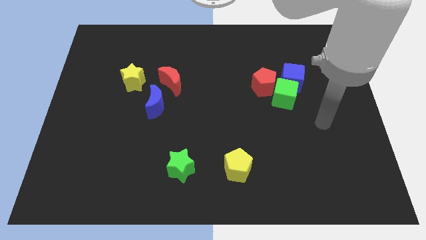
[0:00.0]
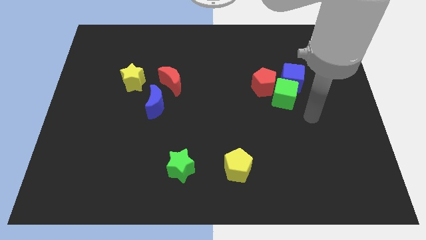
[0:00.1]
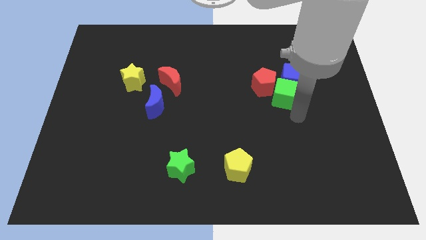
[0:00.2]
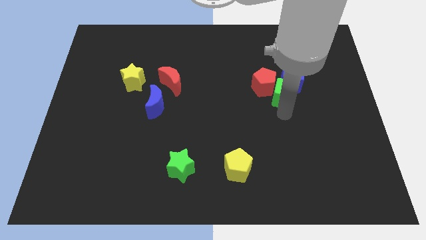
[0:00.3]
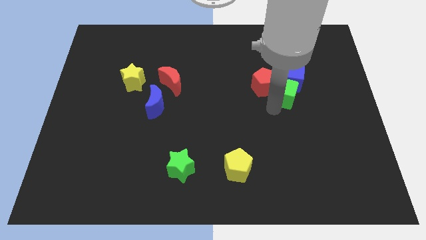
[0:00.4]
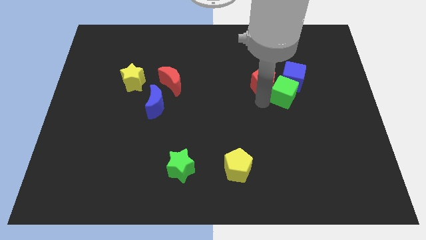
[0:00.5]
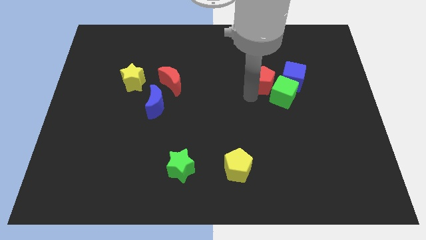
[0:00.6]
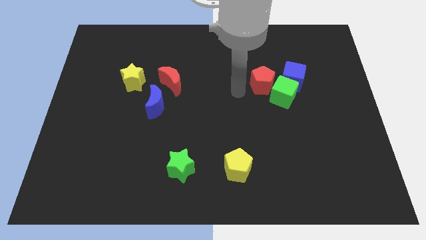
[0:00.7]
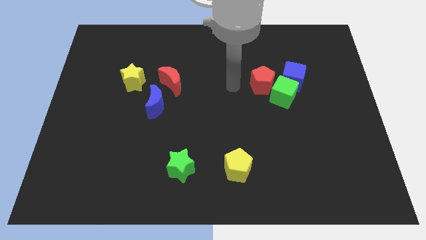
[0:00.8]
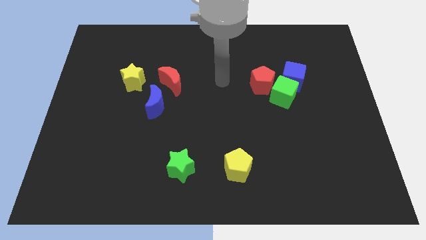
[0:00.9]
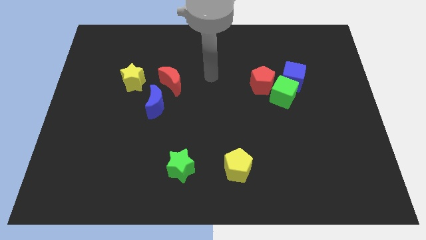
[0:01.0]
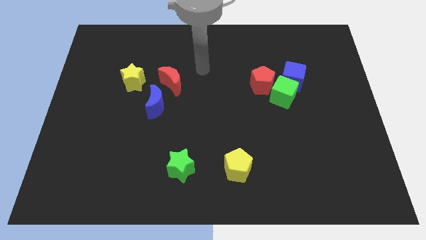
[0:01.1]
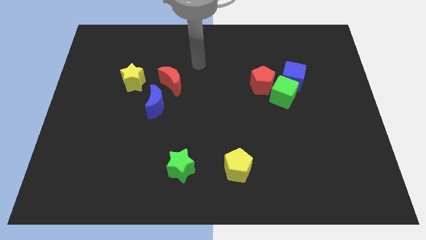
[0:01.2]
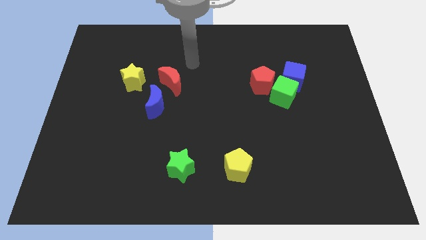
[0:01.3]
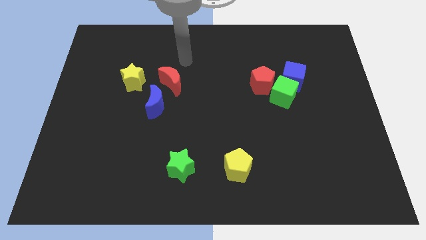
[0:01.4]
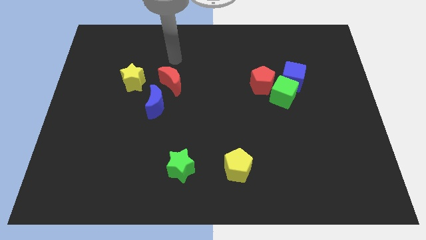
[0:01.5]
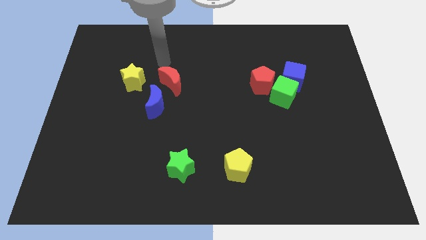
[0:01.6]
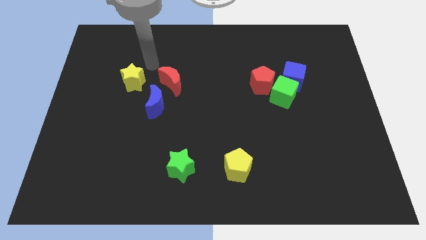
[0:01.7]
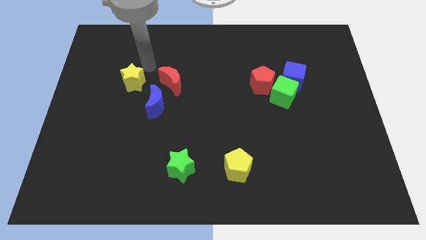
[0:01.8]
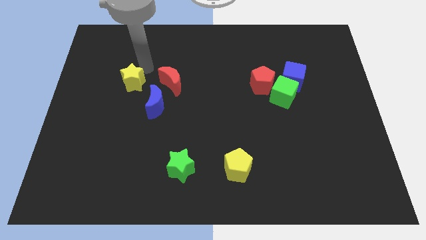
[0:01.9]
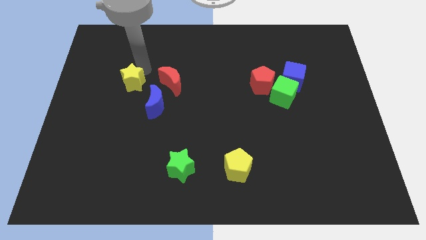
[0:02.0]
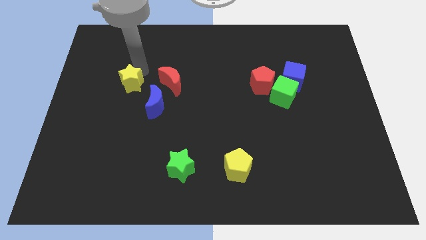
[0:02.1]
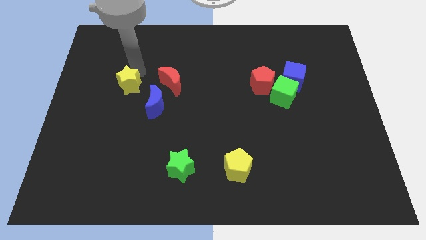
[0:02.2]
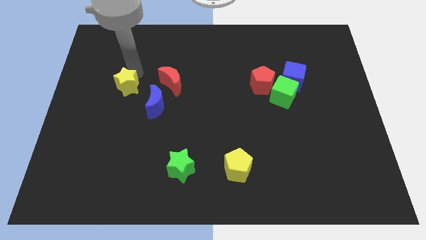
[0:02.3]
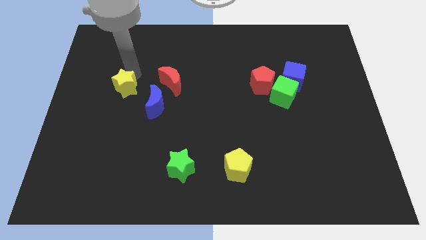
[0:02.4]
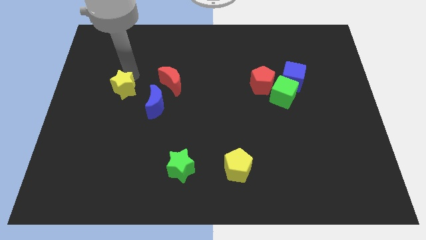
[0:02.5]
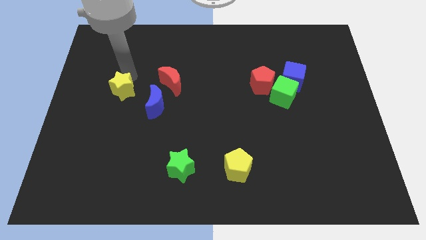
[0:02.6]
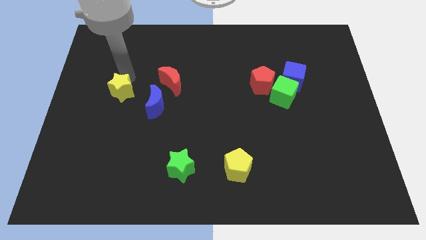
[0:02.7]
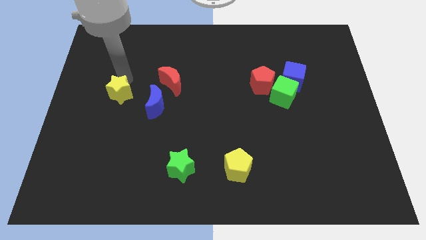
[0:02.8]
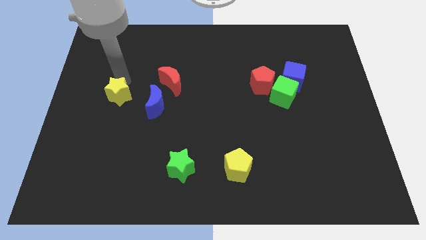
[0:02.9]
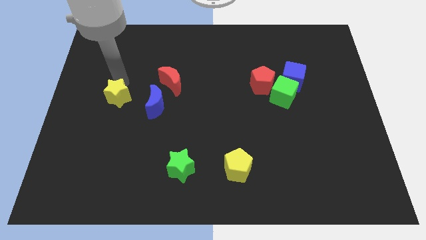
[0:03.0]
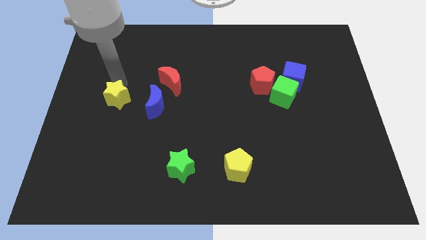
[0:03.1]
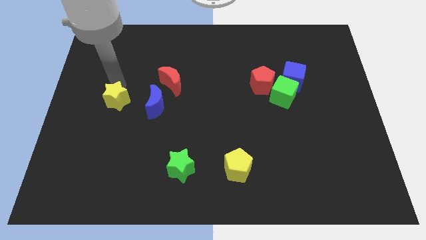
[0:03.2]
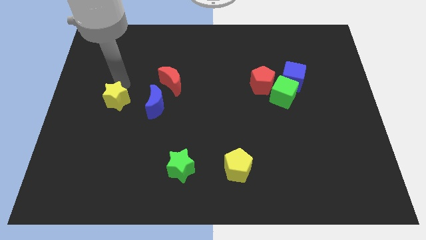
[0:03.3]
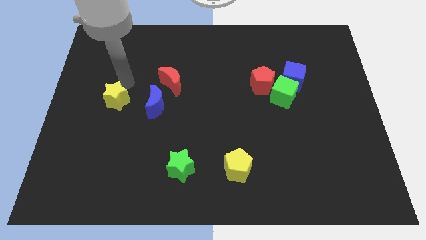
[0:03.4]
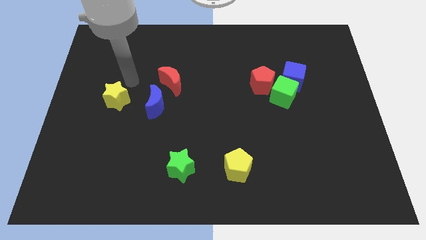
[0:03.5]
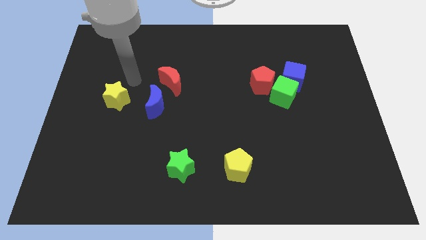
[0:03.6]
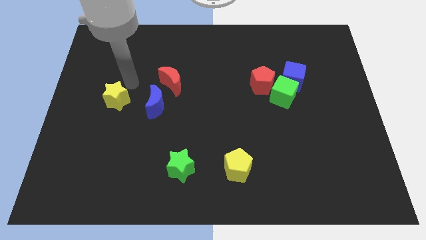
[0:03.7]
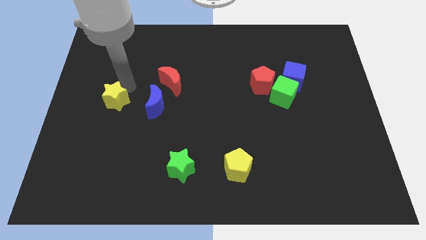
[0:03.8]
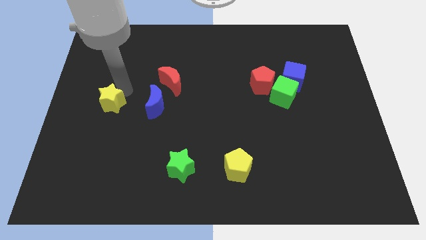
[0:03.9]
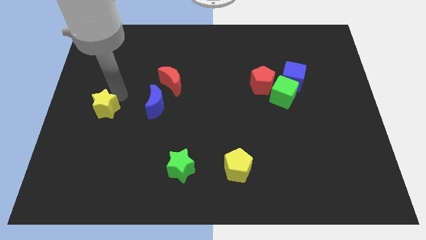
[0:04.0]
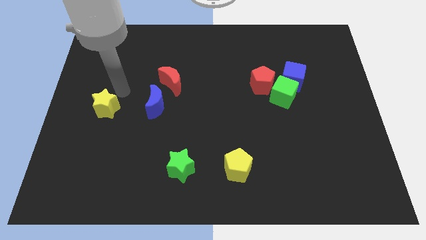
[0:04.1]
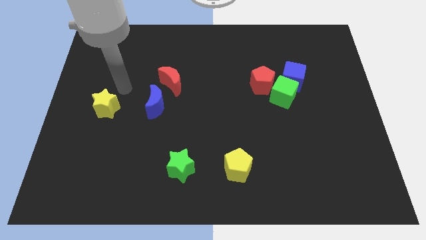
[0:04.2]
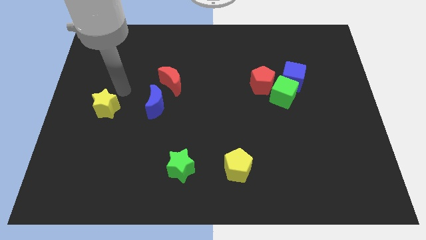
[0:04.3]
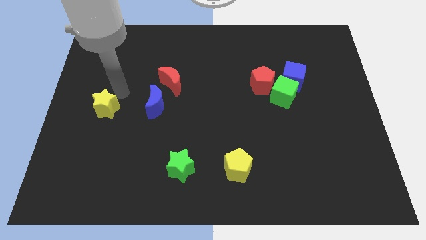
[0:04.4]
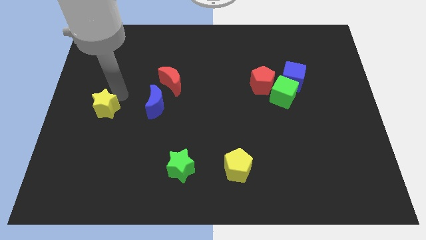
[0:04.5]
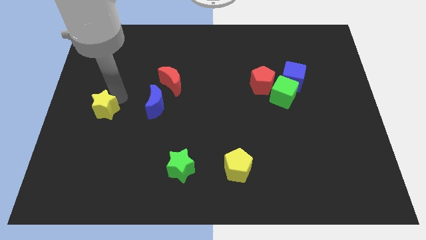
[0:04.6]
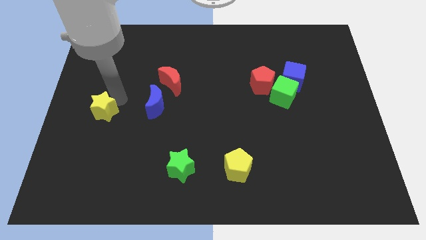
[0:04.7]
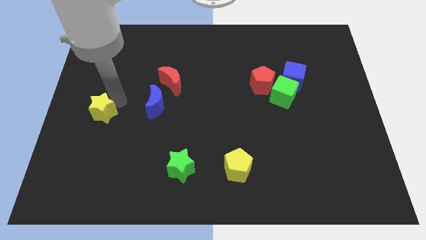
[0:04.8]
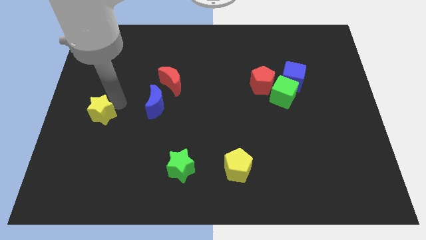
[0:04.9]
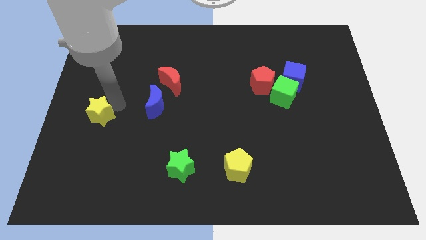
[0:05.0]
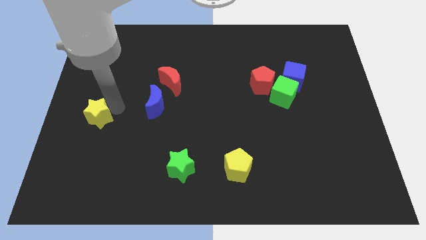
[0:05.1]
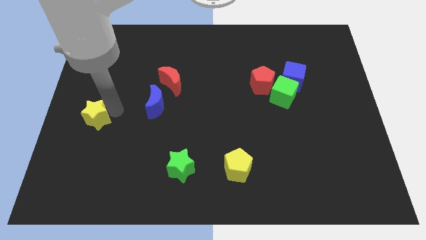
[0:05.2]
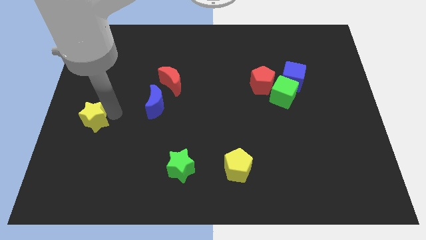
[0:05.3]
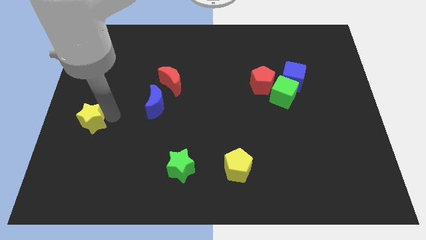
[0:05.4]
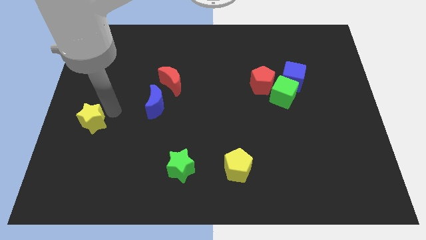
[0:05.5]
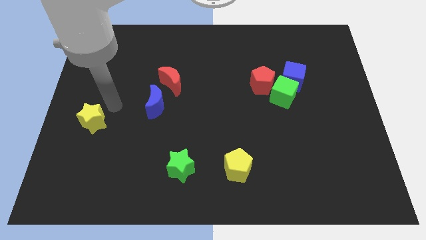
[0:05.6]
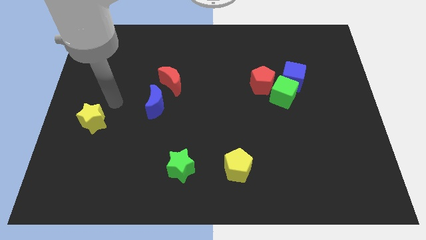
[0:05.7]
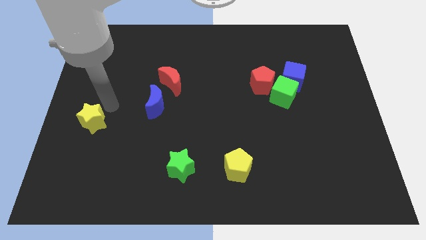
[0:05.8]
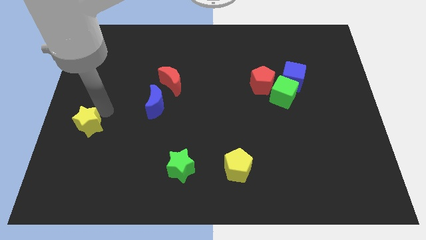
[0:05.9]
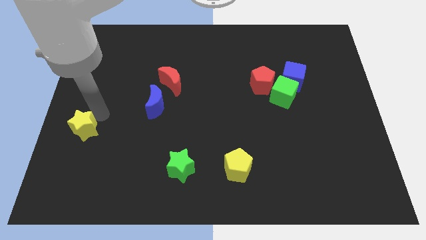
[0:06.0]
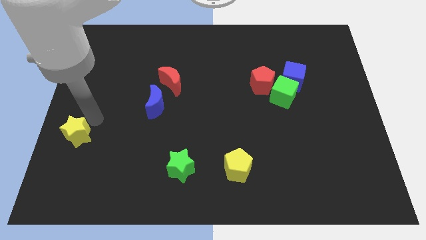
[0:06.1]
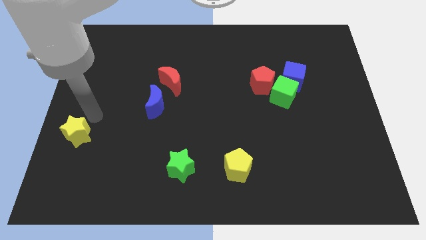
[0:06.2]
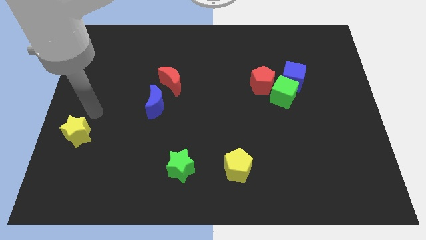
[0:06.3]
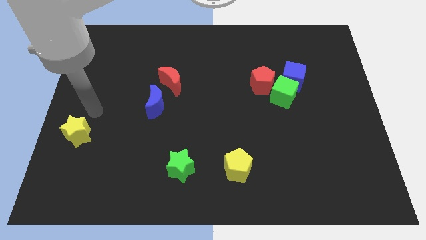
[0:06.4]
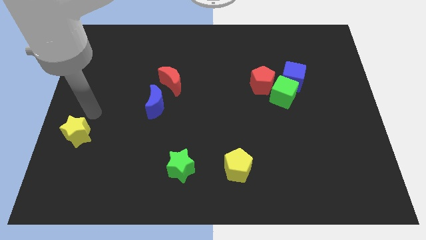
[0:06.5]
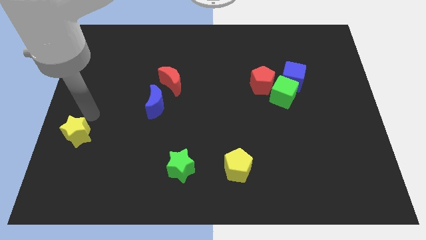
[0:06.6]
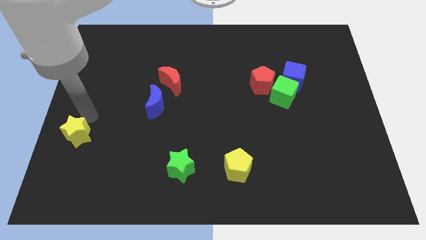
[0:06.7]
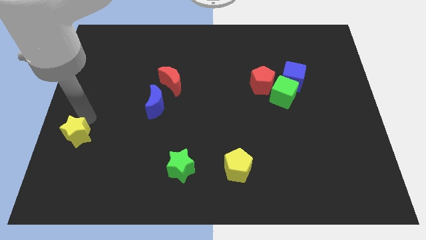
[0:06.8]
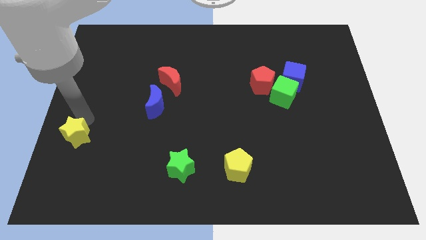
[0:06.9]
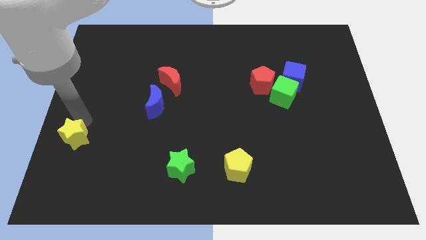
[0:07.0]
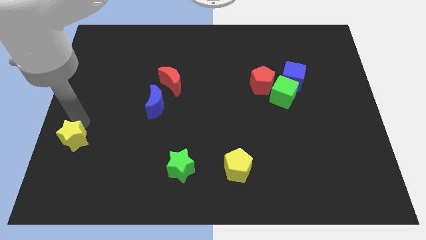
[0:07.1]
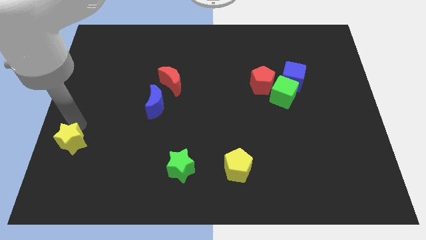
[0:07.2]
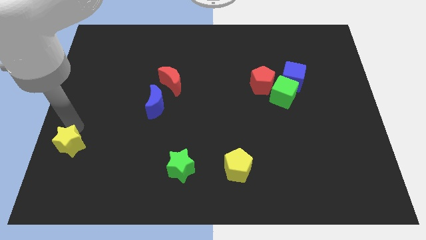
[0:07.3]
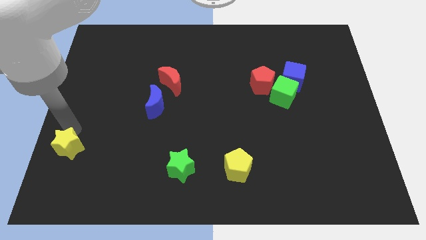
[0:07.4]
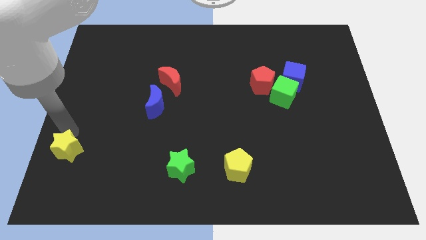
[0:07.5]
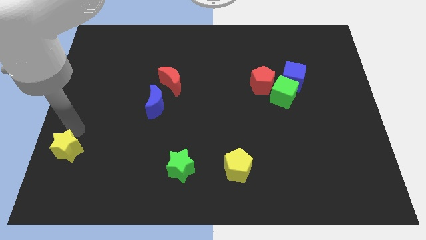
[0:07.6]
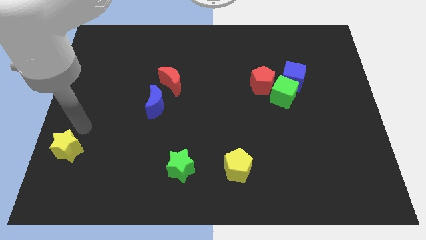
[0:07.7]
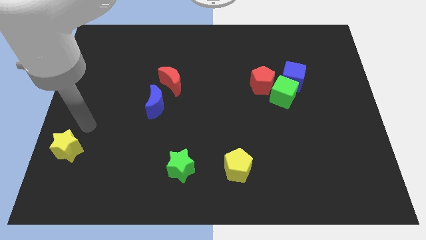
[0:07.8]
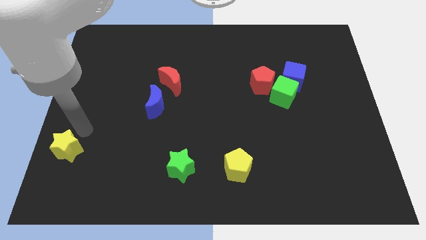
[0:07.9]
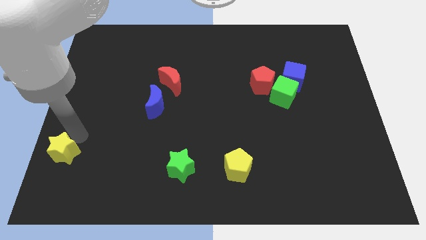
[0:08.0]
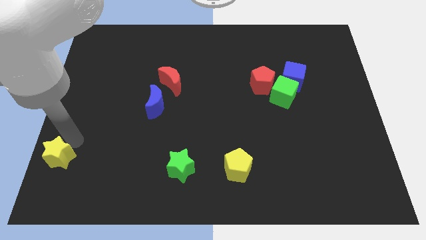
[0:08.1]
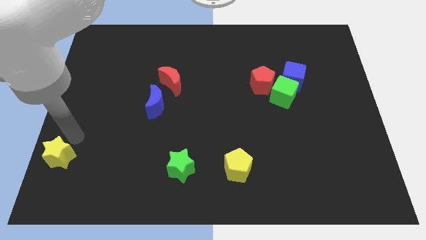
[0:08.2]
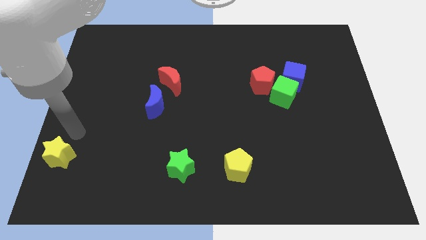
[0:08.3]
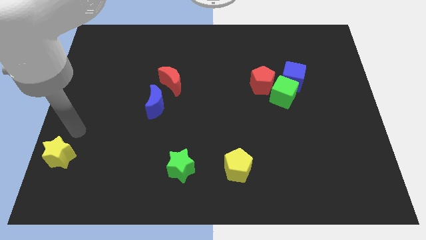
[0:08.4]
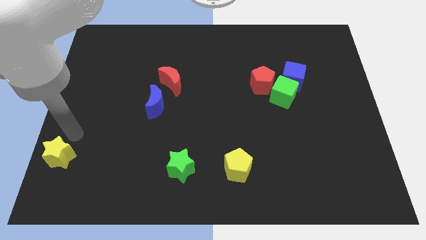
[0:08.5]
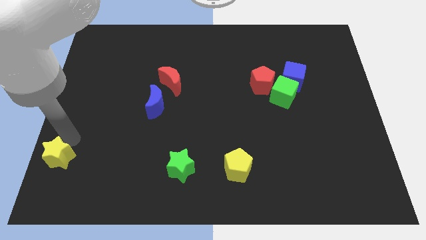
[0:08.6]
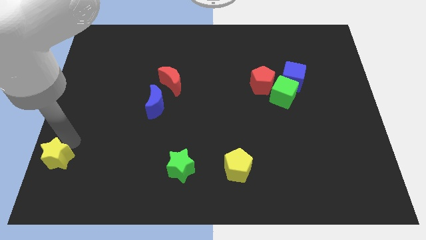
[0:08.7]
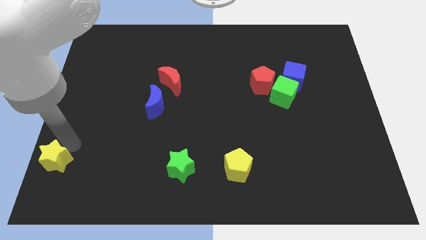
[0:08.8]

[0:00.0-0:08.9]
put the yellow star to the bottom left of the board
